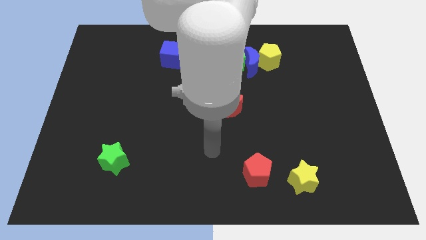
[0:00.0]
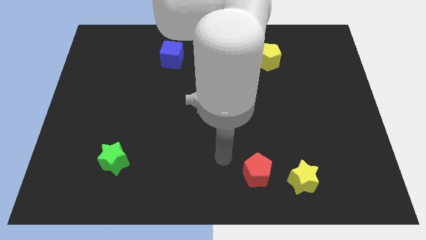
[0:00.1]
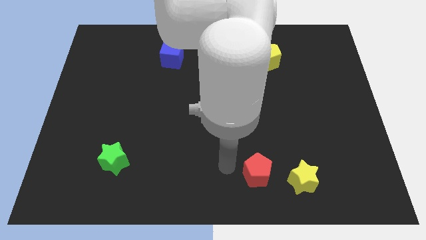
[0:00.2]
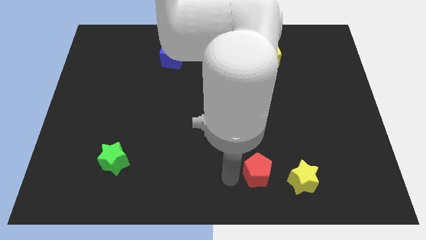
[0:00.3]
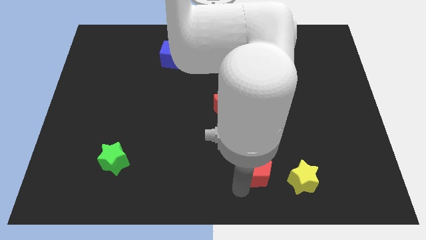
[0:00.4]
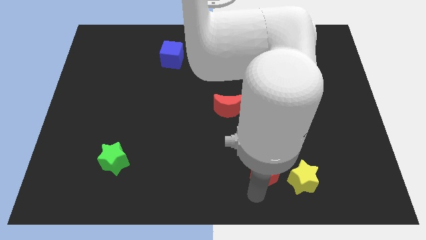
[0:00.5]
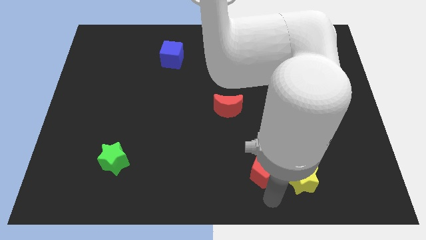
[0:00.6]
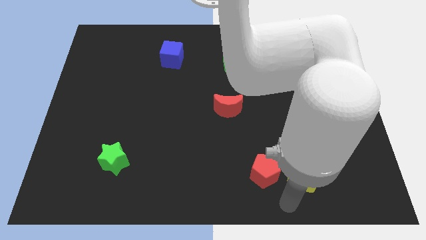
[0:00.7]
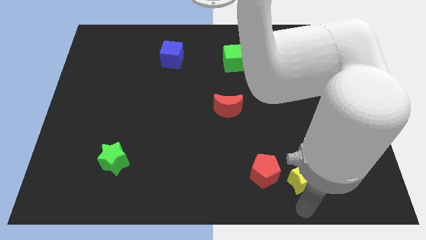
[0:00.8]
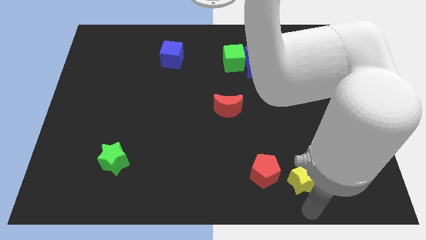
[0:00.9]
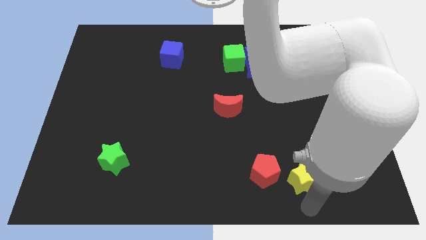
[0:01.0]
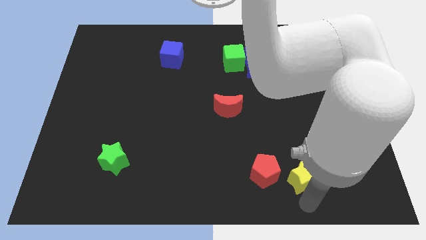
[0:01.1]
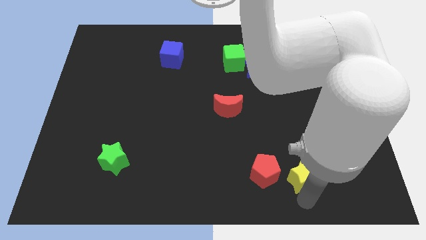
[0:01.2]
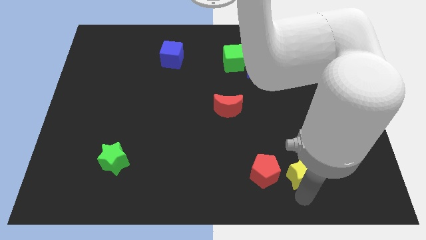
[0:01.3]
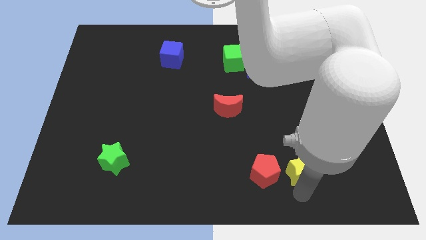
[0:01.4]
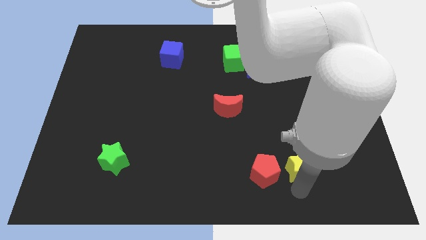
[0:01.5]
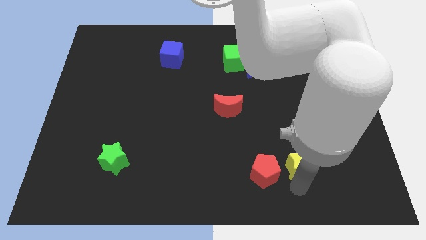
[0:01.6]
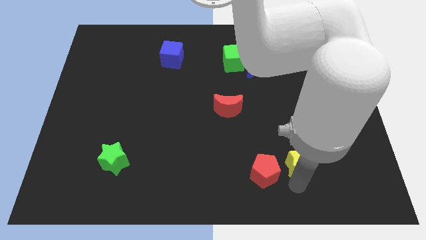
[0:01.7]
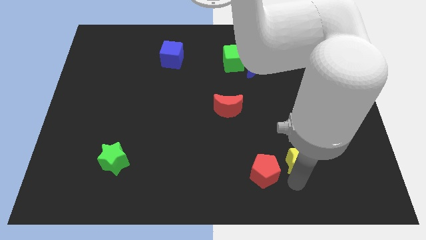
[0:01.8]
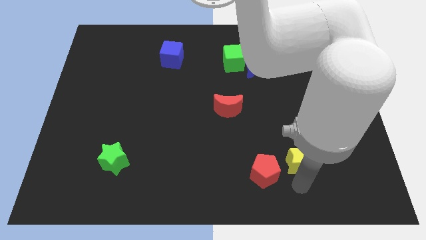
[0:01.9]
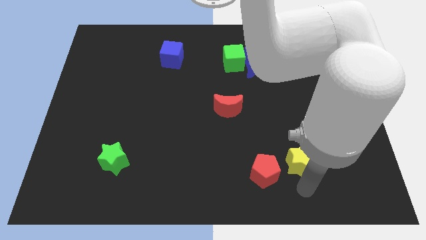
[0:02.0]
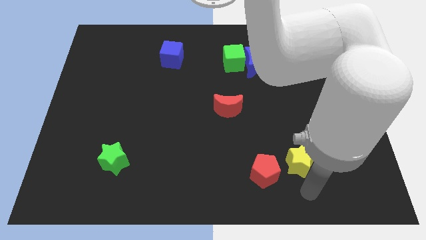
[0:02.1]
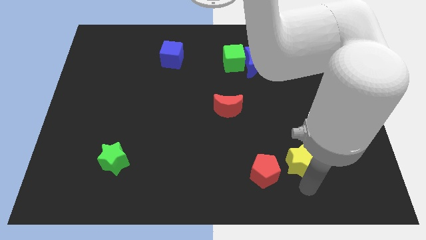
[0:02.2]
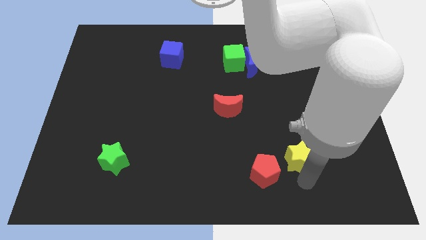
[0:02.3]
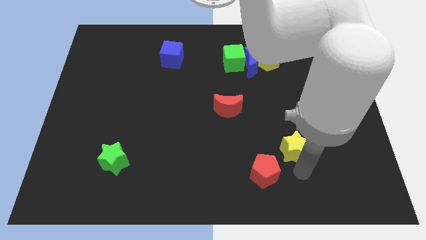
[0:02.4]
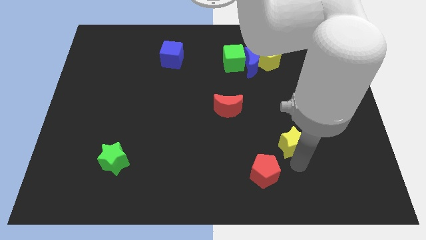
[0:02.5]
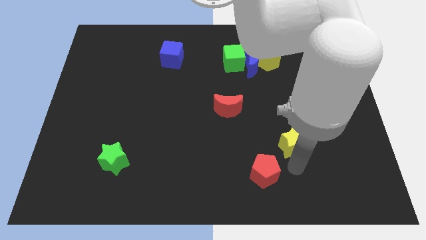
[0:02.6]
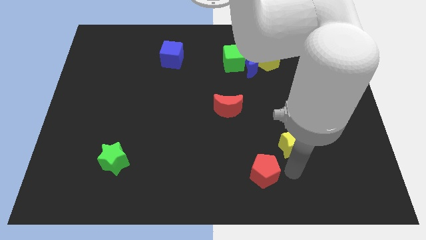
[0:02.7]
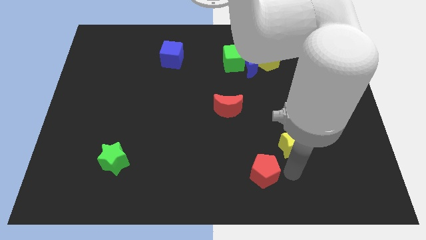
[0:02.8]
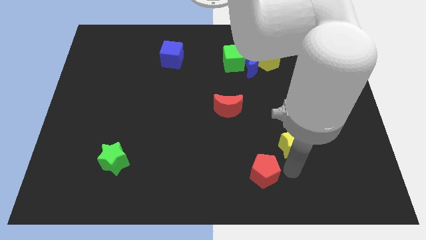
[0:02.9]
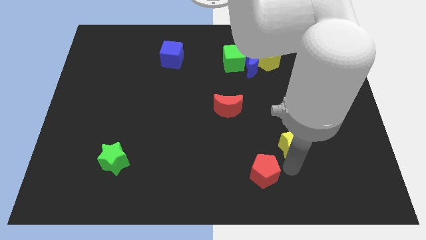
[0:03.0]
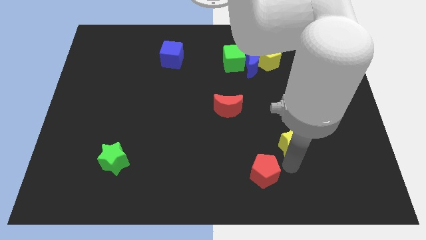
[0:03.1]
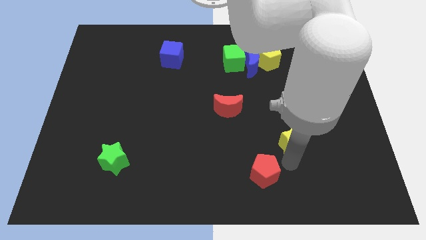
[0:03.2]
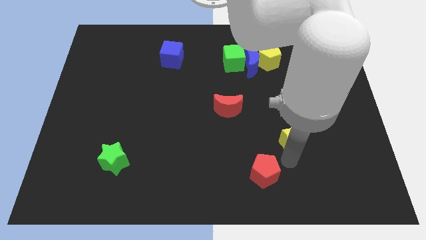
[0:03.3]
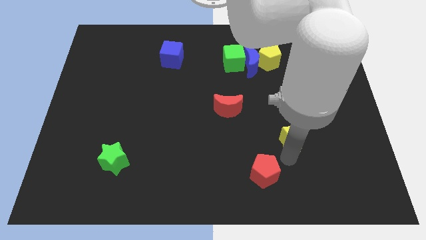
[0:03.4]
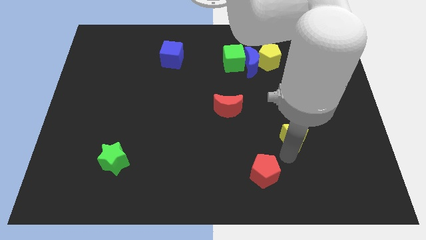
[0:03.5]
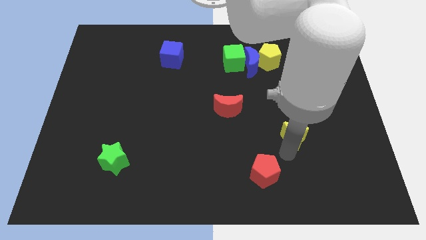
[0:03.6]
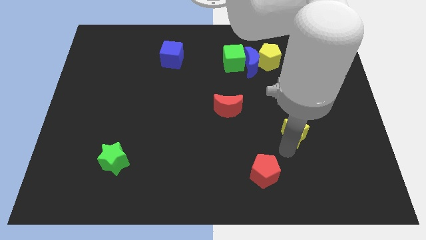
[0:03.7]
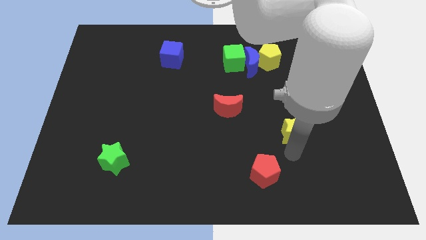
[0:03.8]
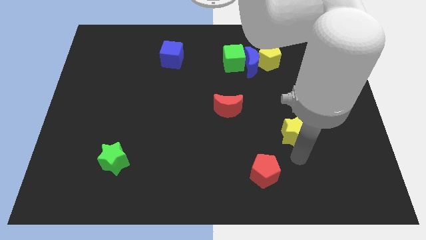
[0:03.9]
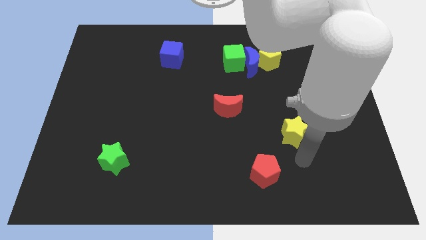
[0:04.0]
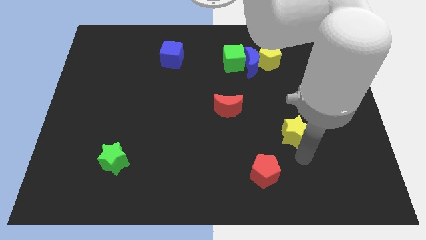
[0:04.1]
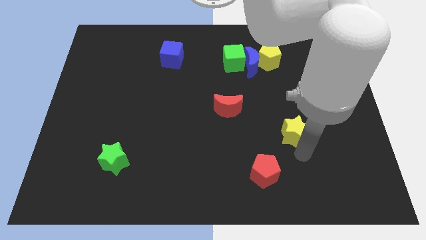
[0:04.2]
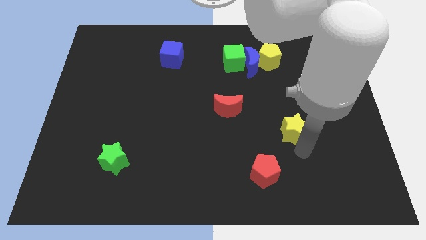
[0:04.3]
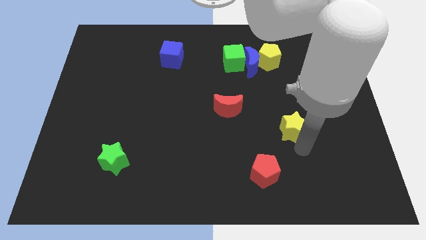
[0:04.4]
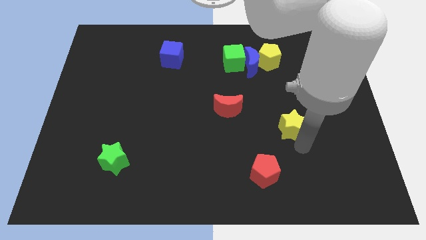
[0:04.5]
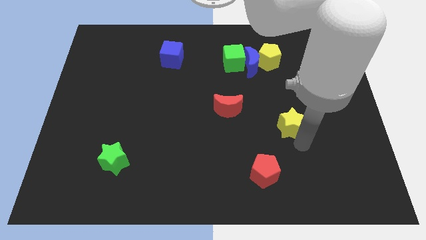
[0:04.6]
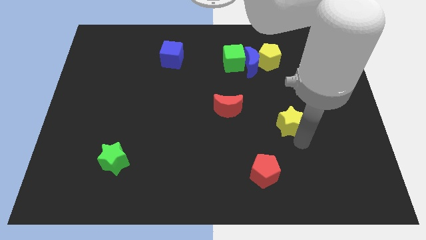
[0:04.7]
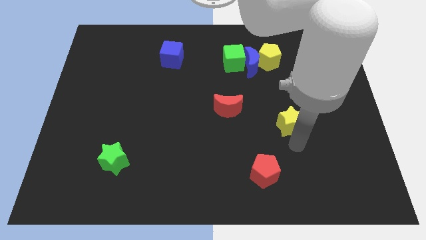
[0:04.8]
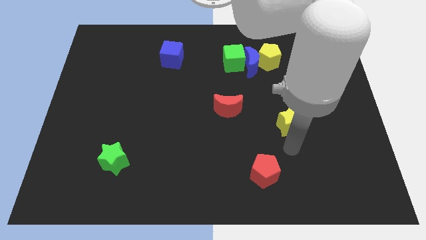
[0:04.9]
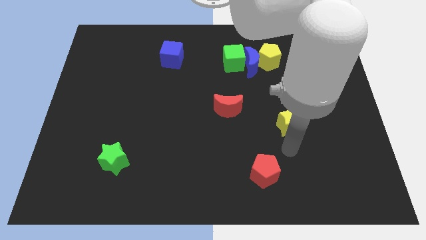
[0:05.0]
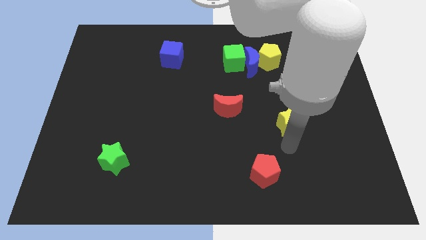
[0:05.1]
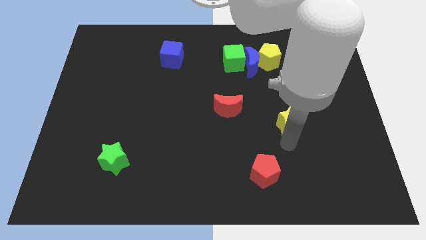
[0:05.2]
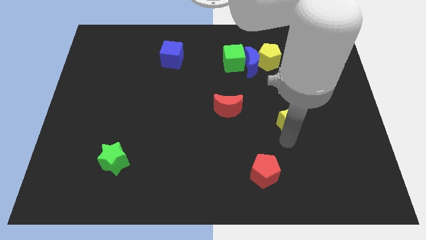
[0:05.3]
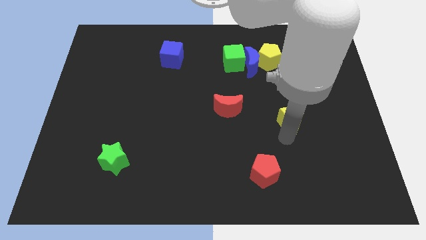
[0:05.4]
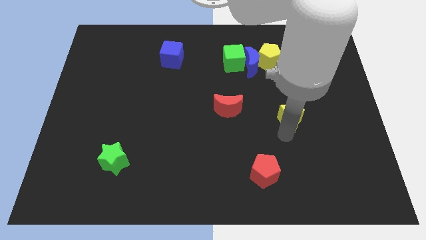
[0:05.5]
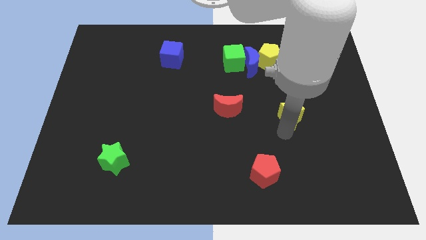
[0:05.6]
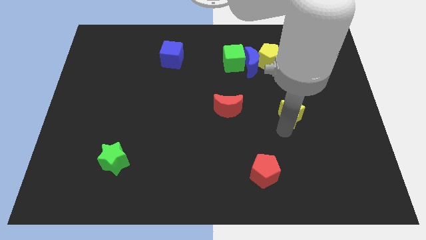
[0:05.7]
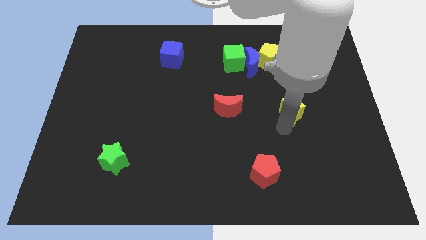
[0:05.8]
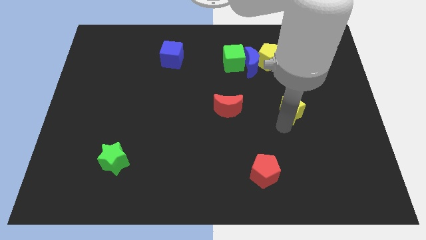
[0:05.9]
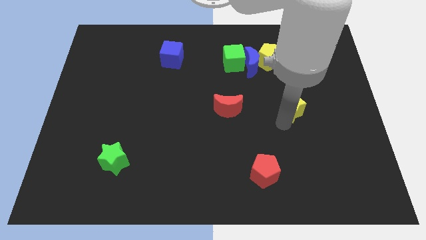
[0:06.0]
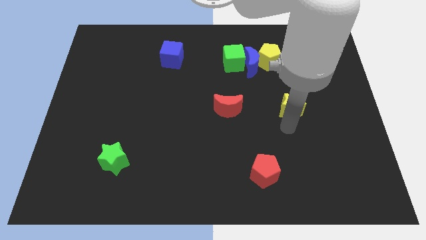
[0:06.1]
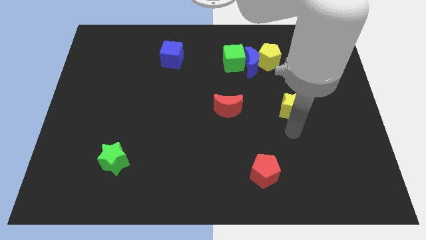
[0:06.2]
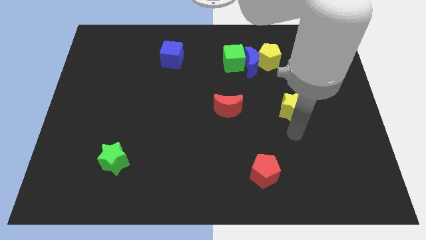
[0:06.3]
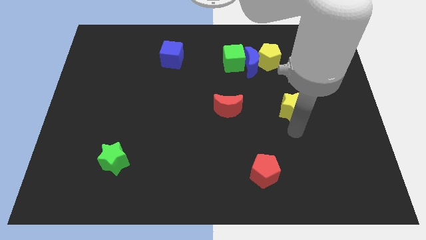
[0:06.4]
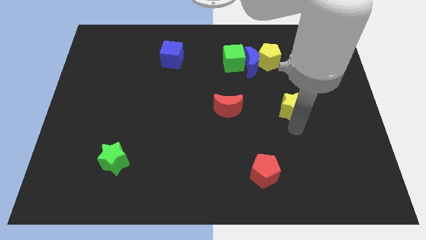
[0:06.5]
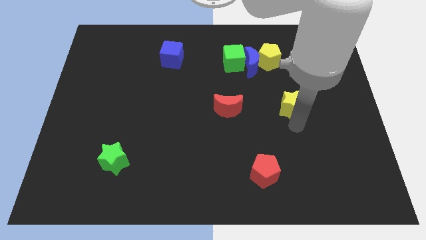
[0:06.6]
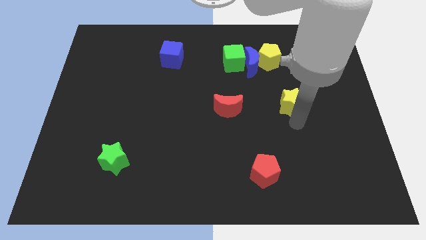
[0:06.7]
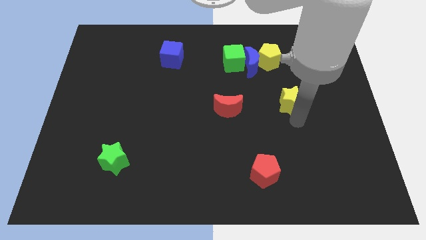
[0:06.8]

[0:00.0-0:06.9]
push the yellow star up

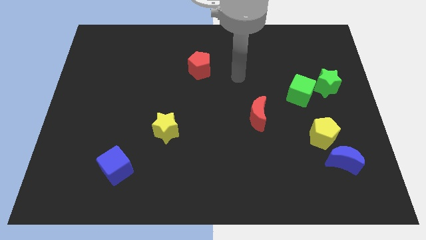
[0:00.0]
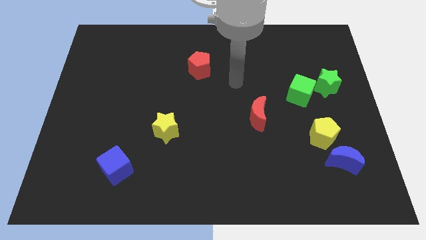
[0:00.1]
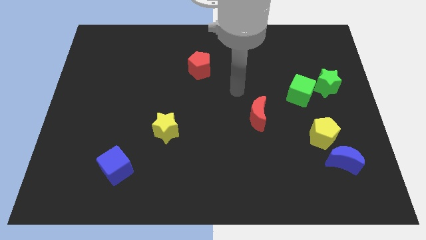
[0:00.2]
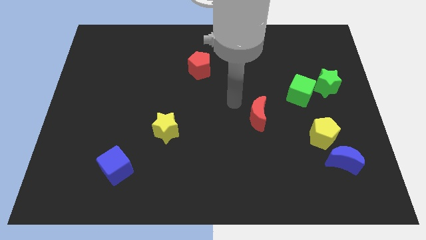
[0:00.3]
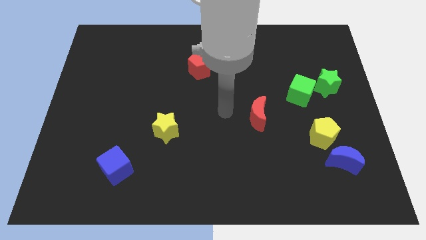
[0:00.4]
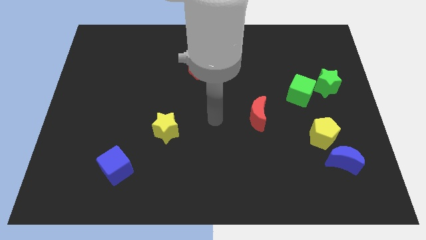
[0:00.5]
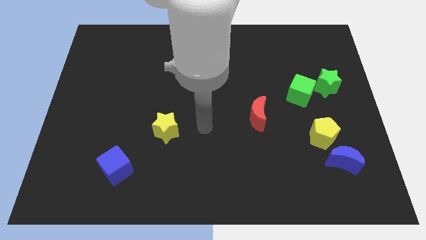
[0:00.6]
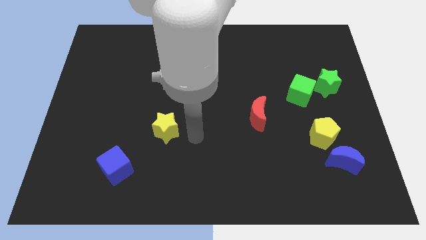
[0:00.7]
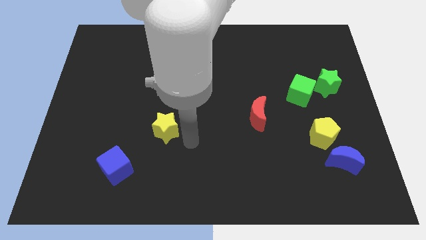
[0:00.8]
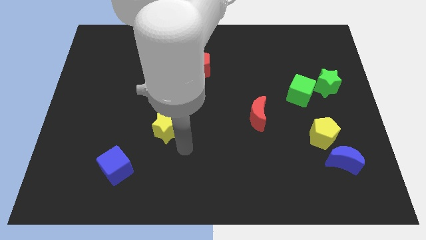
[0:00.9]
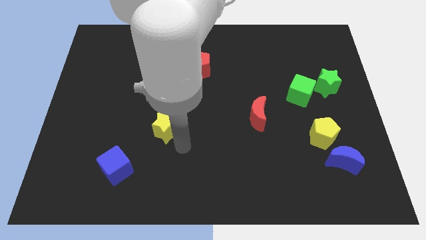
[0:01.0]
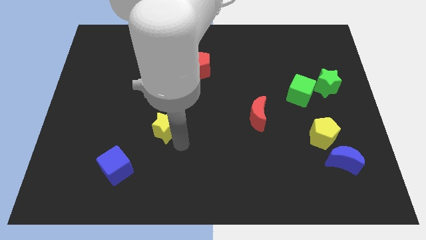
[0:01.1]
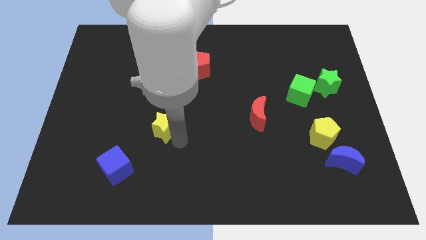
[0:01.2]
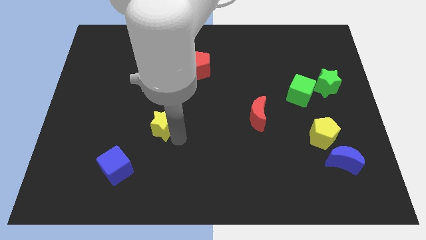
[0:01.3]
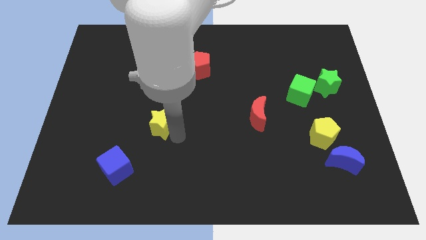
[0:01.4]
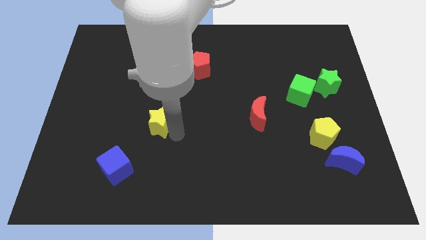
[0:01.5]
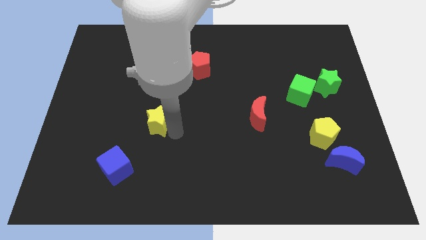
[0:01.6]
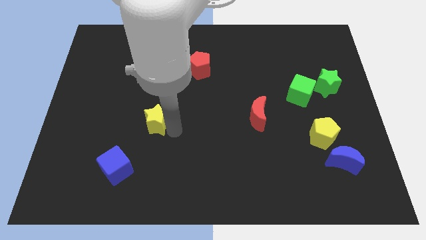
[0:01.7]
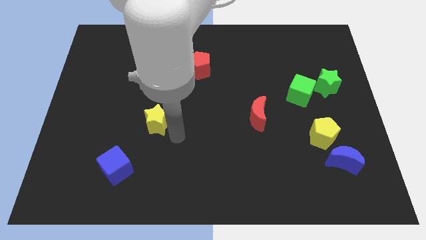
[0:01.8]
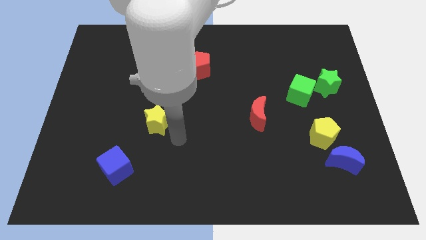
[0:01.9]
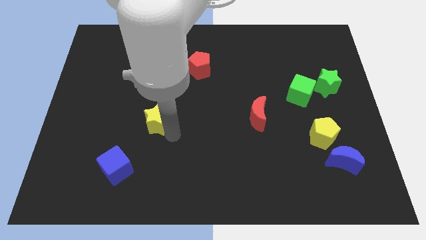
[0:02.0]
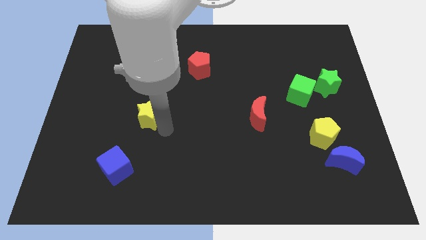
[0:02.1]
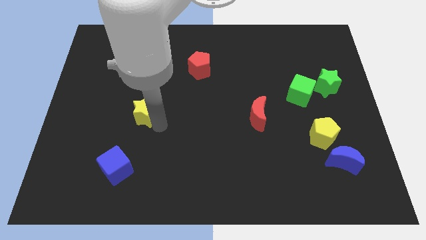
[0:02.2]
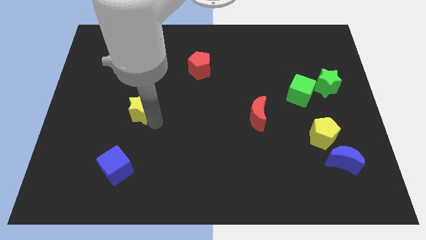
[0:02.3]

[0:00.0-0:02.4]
slightly slide the yellow star up and then left
